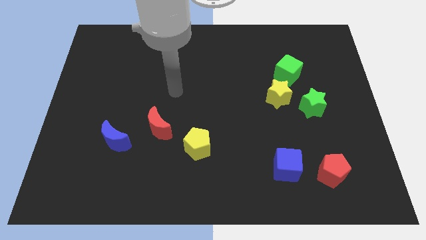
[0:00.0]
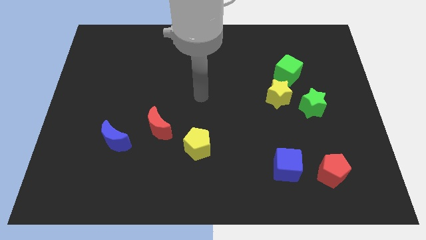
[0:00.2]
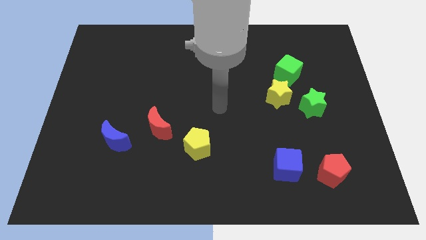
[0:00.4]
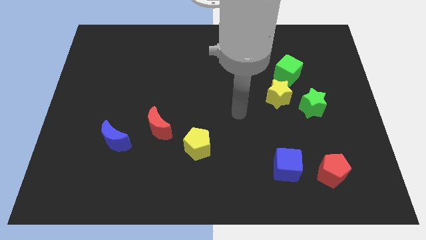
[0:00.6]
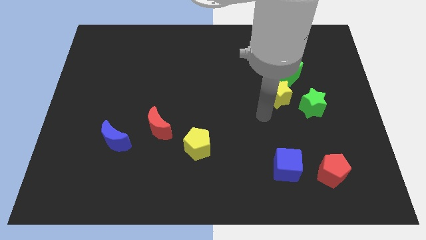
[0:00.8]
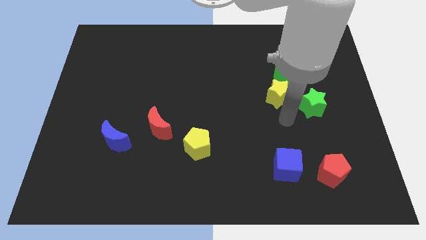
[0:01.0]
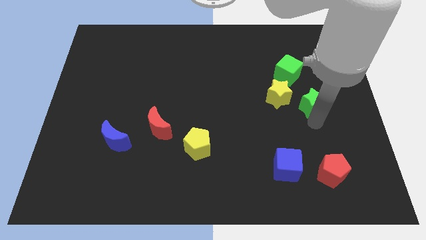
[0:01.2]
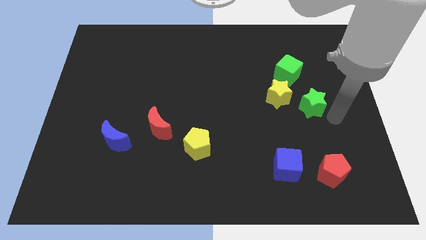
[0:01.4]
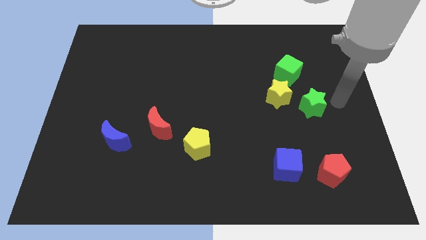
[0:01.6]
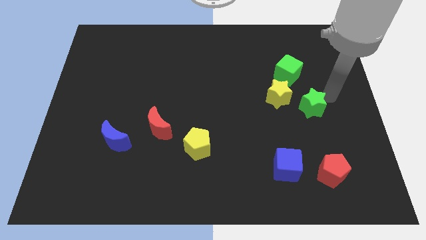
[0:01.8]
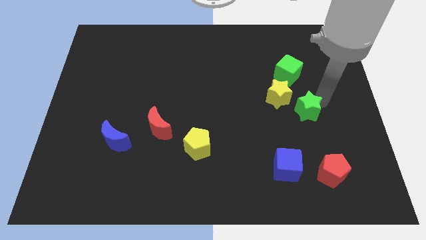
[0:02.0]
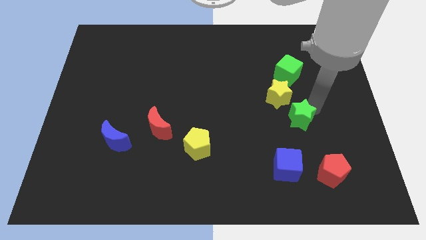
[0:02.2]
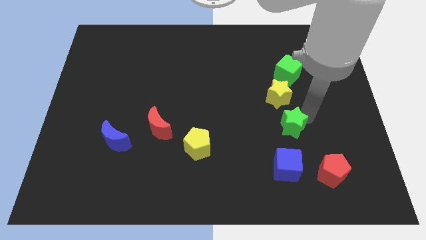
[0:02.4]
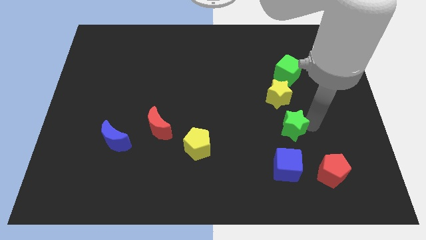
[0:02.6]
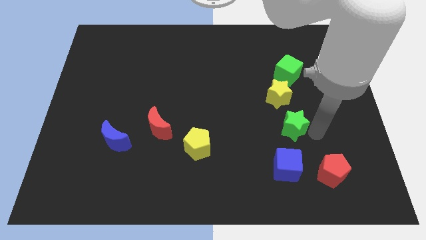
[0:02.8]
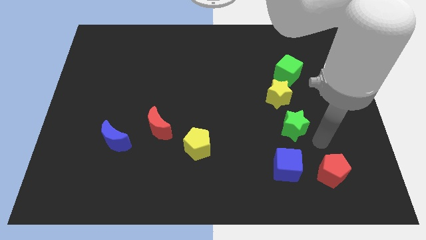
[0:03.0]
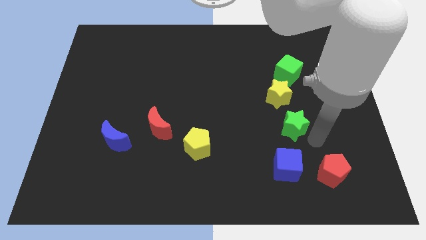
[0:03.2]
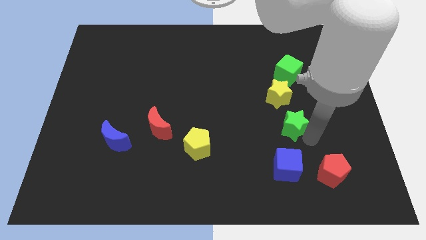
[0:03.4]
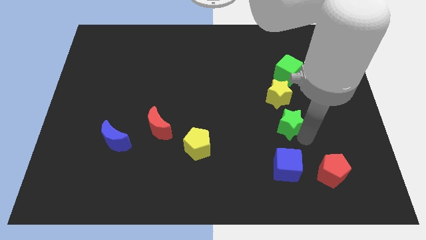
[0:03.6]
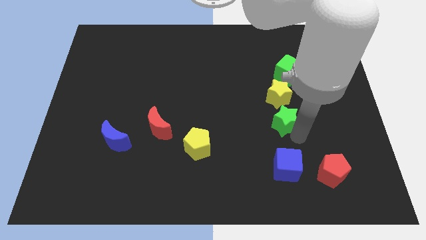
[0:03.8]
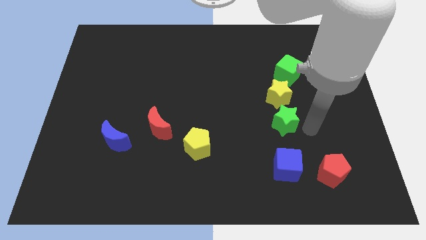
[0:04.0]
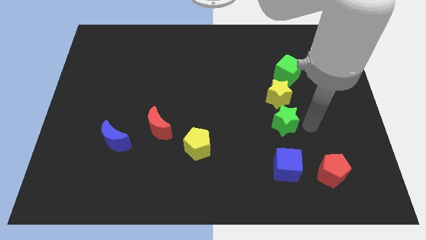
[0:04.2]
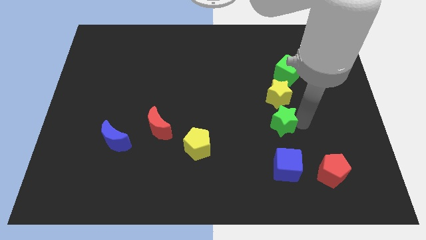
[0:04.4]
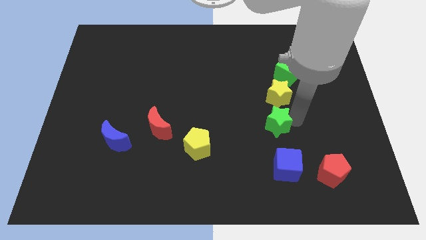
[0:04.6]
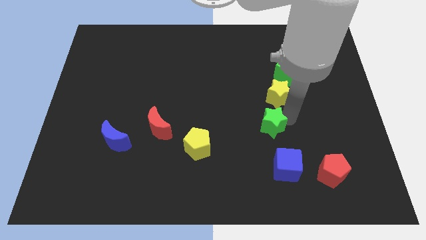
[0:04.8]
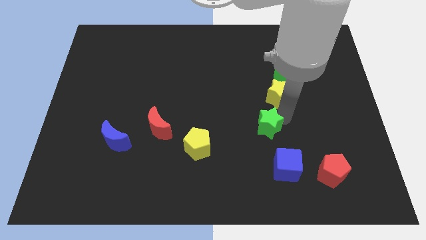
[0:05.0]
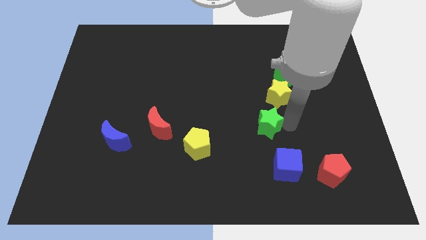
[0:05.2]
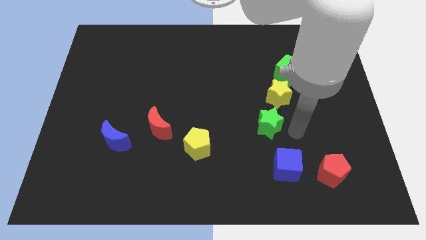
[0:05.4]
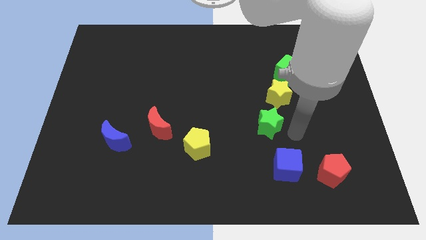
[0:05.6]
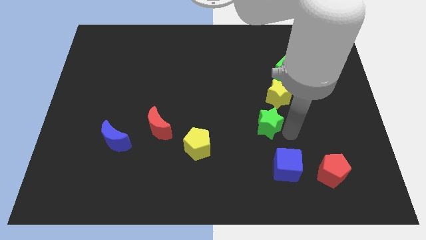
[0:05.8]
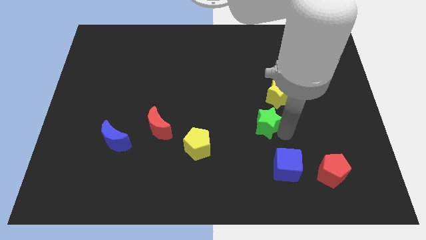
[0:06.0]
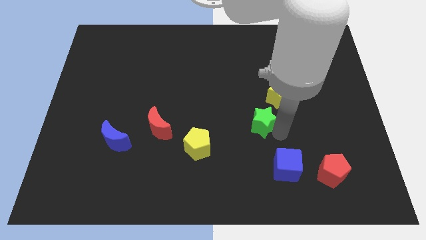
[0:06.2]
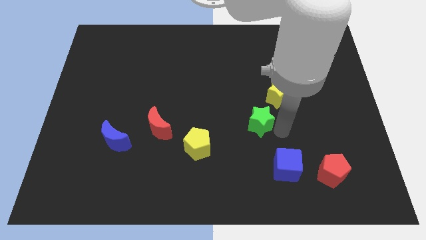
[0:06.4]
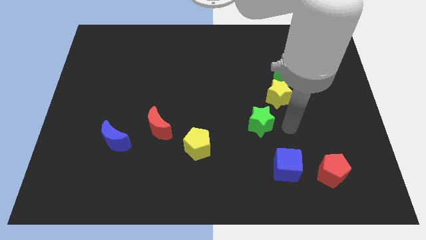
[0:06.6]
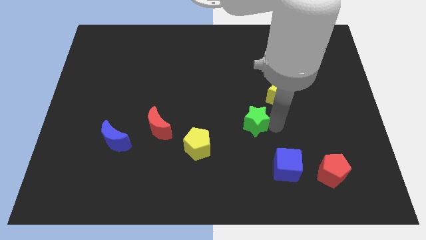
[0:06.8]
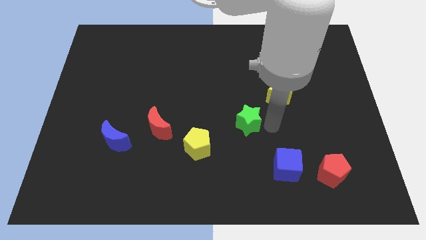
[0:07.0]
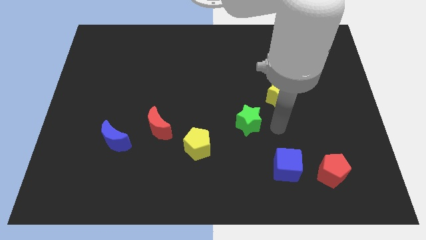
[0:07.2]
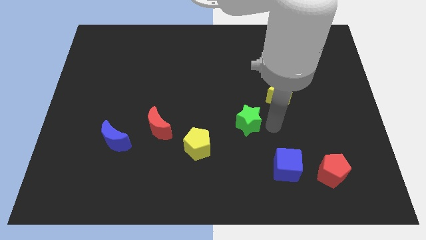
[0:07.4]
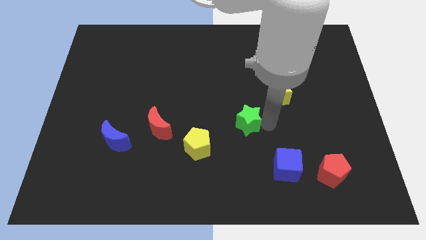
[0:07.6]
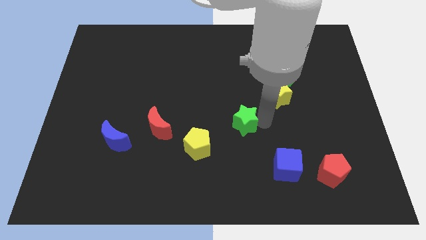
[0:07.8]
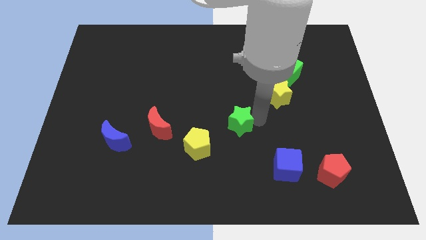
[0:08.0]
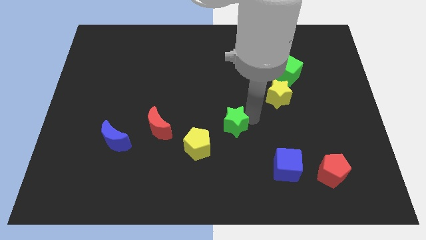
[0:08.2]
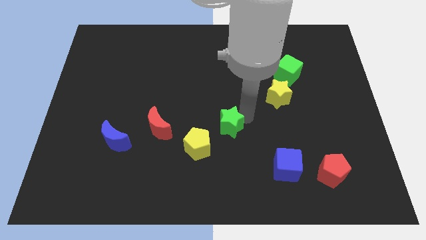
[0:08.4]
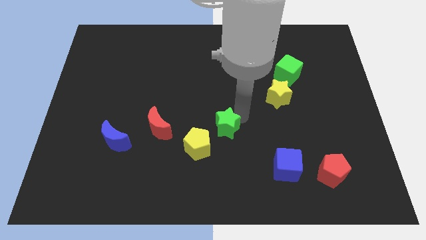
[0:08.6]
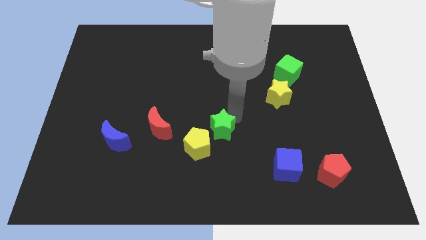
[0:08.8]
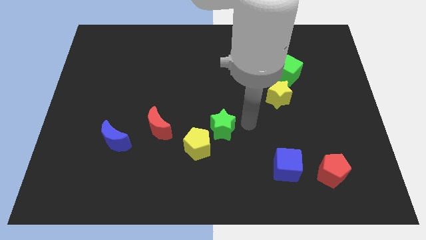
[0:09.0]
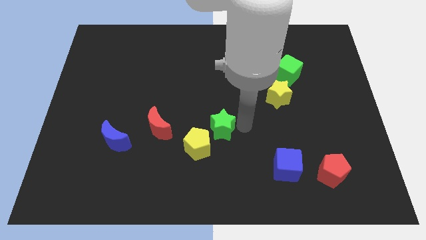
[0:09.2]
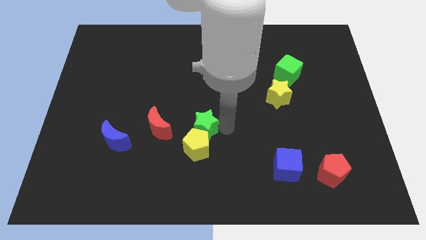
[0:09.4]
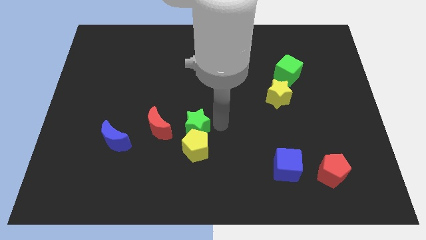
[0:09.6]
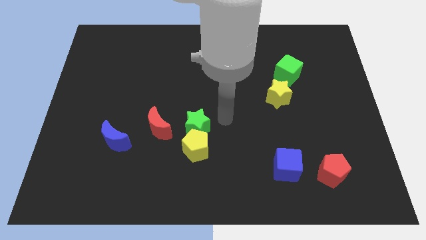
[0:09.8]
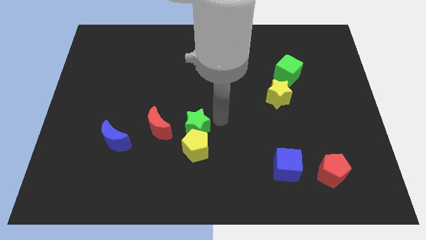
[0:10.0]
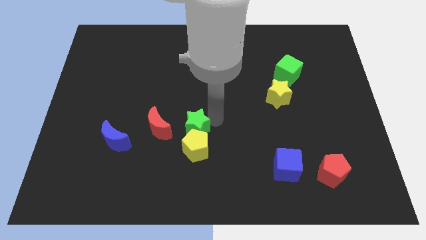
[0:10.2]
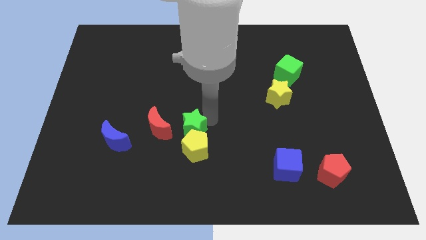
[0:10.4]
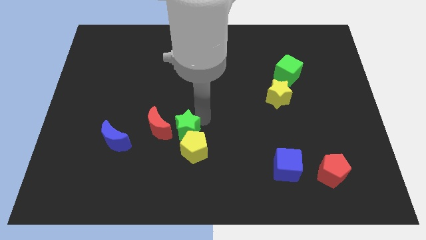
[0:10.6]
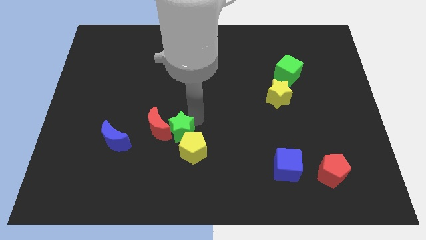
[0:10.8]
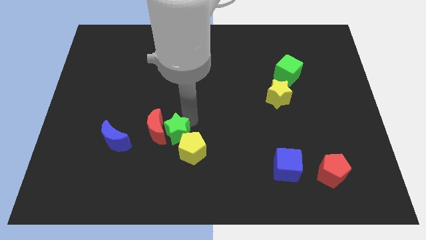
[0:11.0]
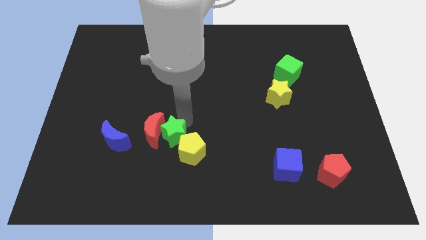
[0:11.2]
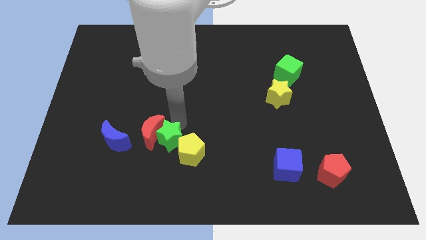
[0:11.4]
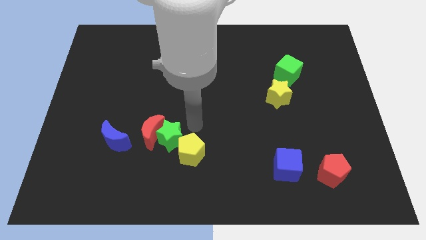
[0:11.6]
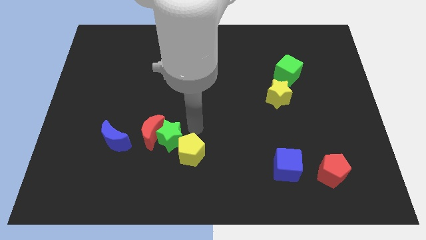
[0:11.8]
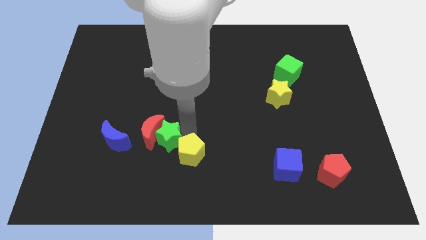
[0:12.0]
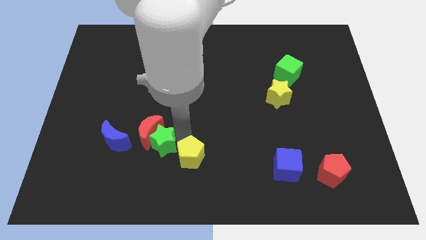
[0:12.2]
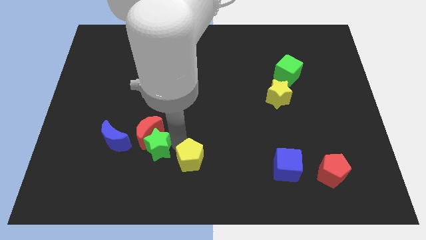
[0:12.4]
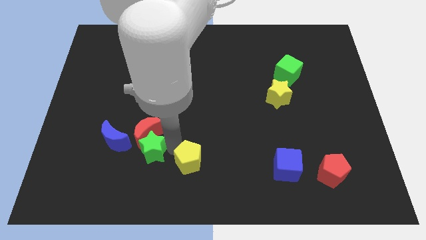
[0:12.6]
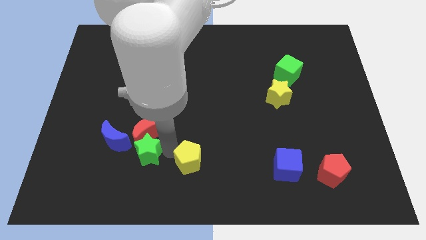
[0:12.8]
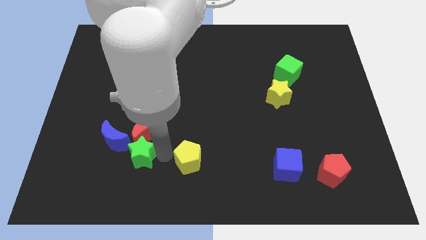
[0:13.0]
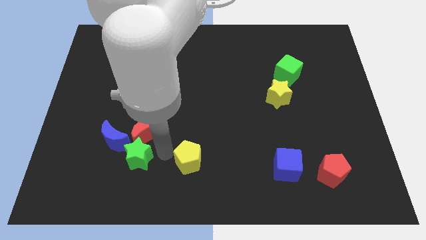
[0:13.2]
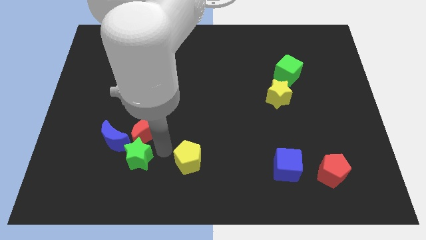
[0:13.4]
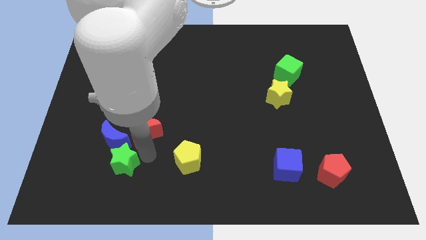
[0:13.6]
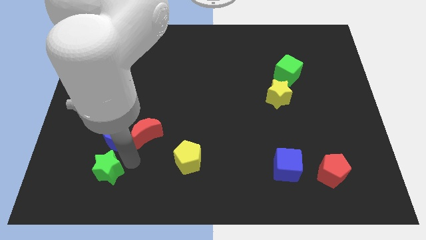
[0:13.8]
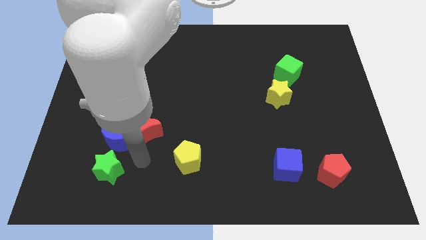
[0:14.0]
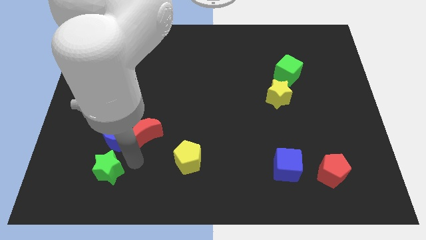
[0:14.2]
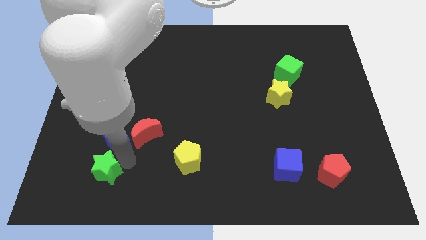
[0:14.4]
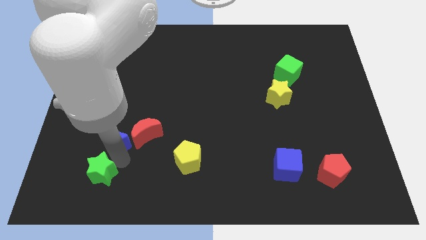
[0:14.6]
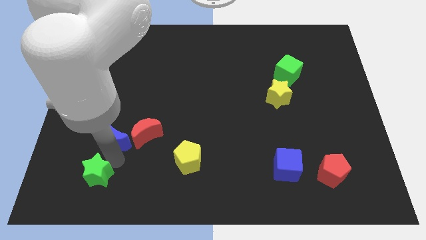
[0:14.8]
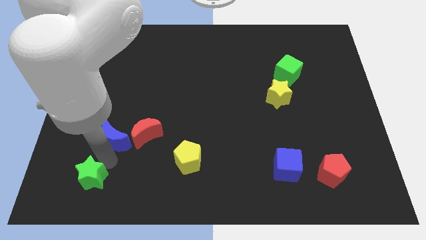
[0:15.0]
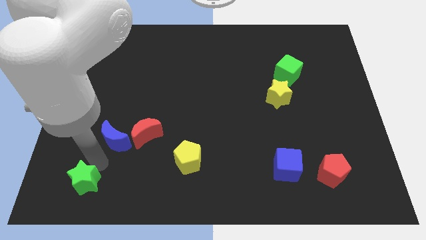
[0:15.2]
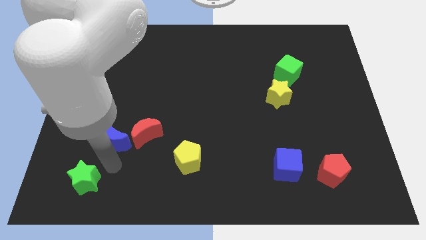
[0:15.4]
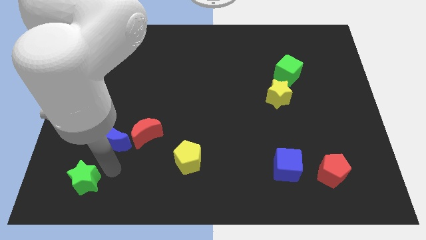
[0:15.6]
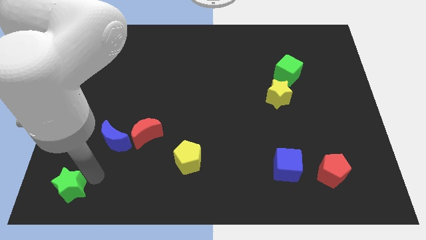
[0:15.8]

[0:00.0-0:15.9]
put the green star to the lower left corner
